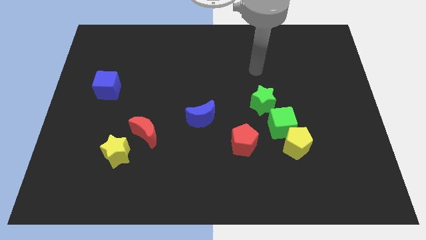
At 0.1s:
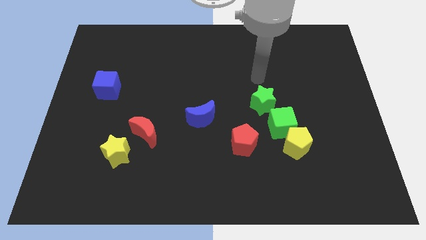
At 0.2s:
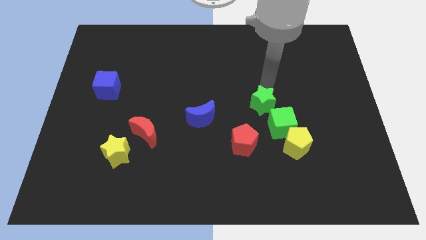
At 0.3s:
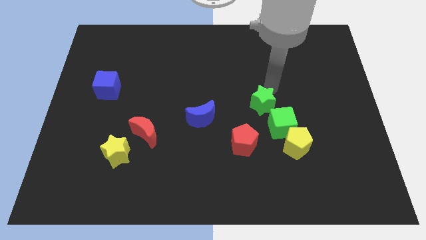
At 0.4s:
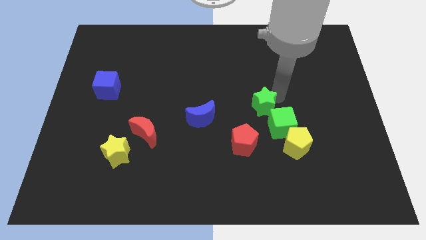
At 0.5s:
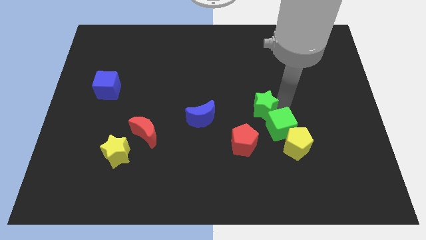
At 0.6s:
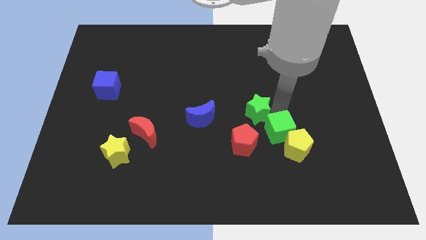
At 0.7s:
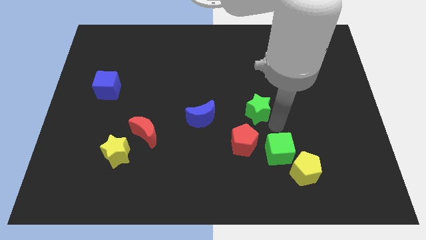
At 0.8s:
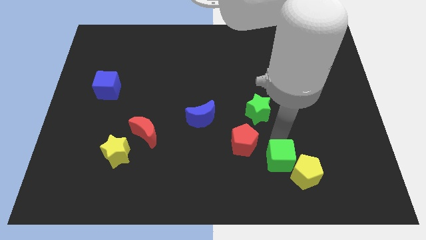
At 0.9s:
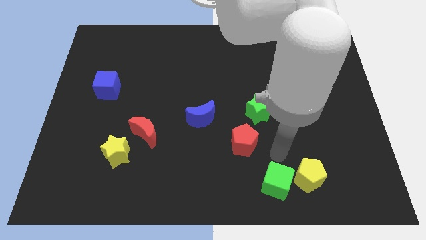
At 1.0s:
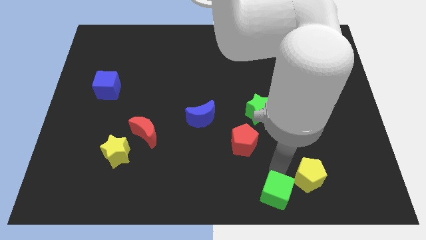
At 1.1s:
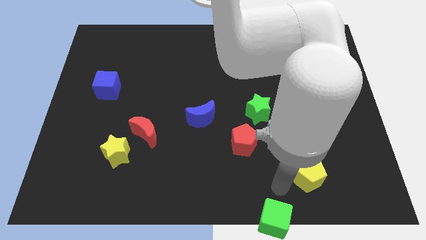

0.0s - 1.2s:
move the yellow pentagon away from the green cube

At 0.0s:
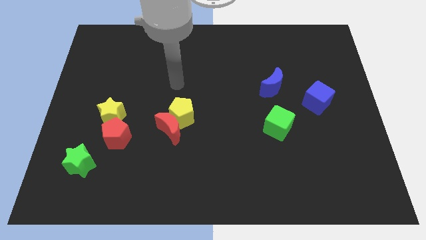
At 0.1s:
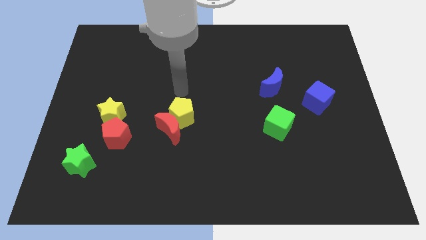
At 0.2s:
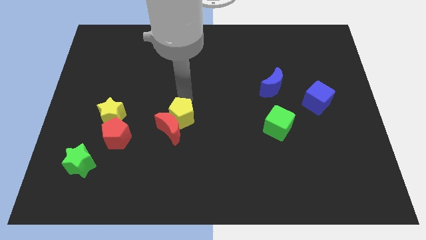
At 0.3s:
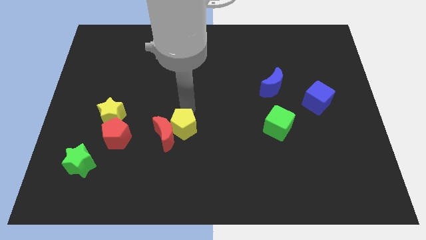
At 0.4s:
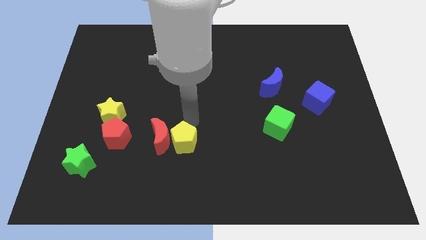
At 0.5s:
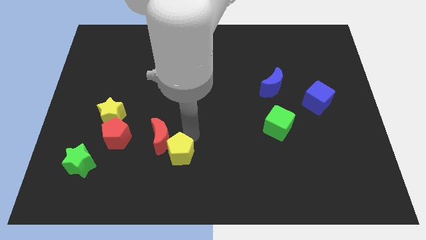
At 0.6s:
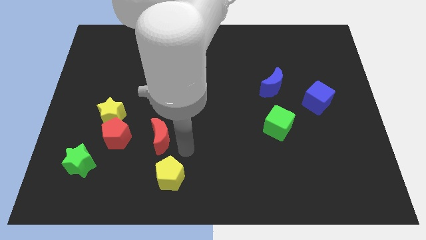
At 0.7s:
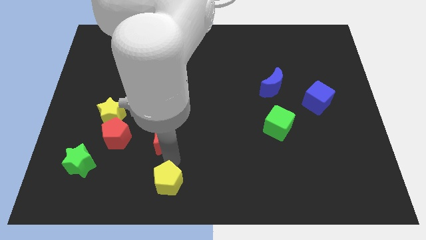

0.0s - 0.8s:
separate the red moon from the yellow pentagon

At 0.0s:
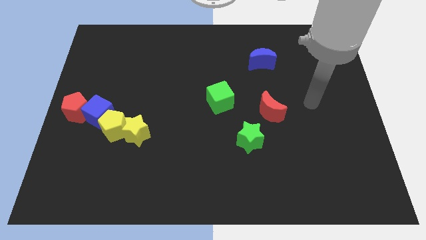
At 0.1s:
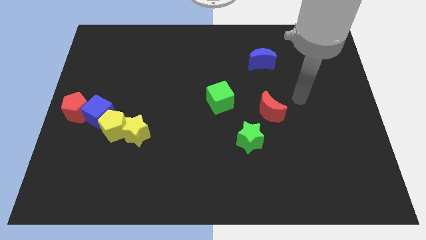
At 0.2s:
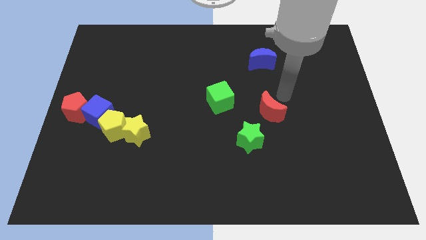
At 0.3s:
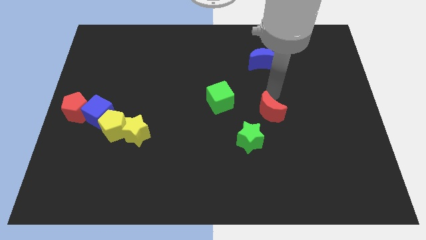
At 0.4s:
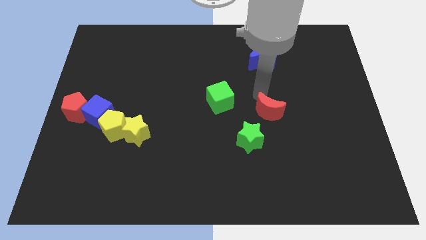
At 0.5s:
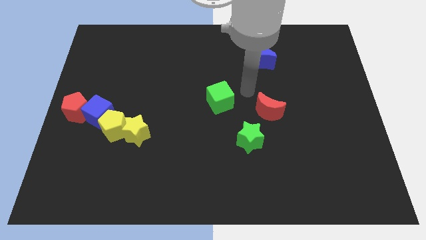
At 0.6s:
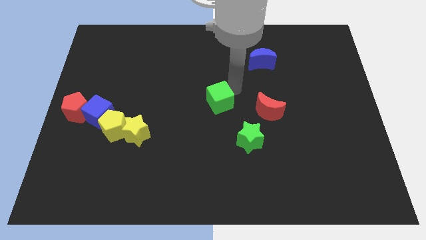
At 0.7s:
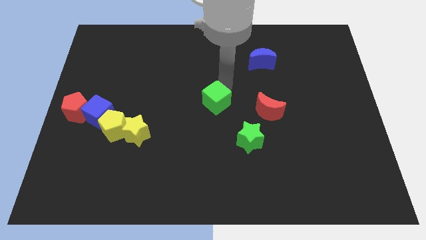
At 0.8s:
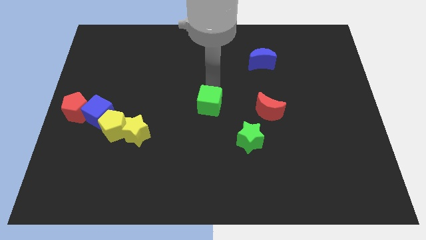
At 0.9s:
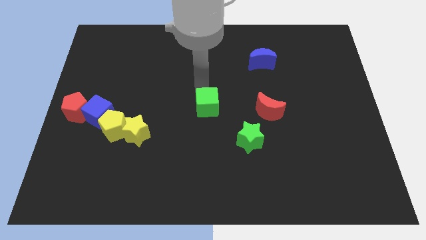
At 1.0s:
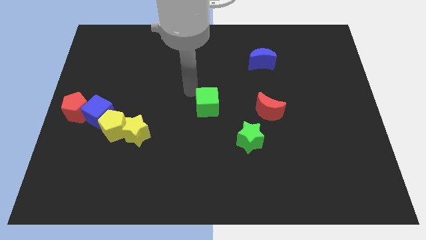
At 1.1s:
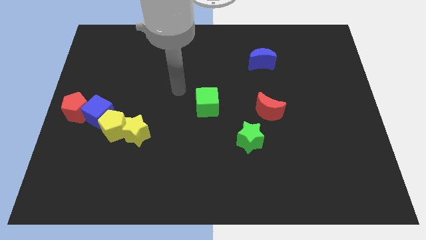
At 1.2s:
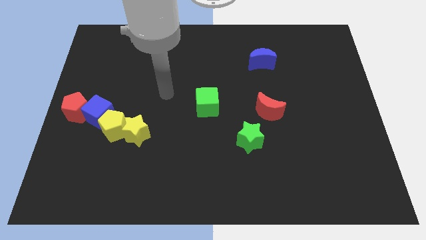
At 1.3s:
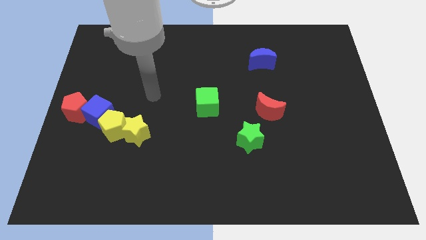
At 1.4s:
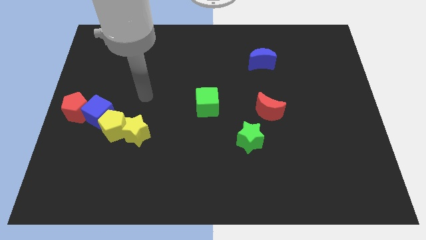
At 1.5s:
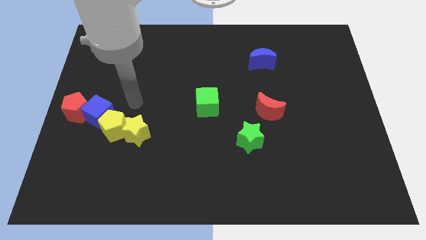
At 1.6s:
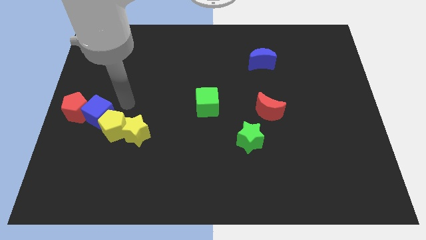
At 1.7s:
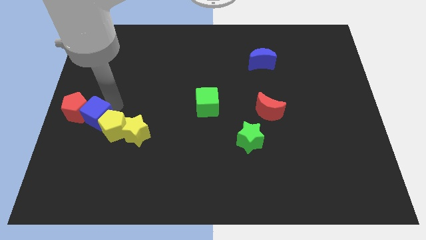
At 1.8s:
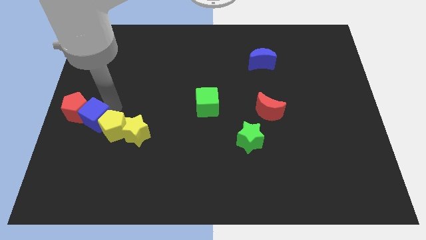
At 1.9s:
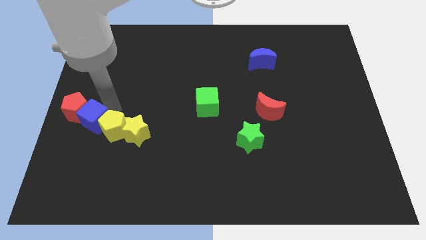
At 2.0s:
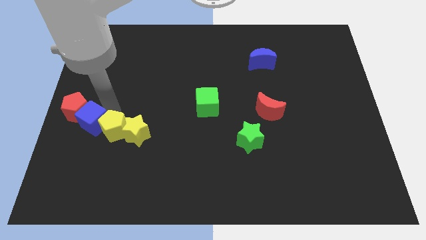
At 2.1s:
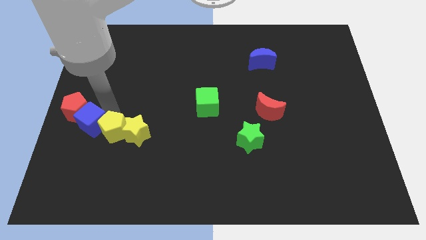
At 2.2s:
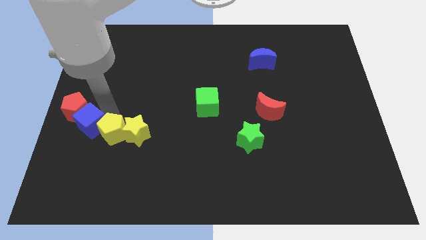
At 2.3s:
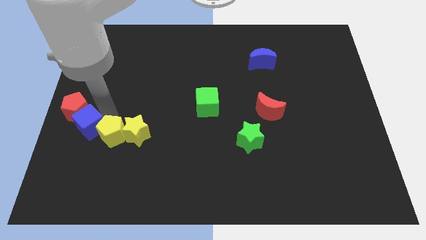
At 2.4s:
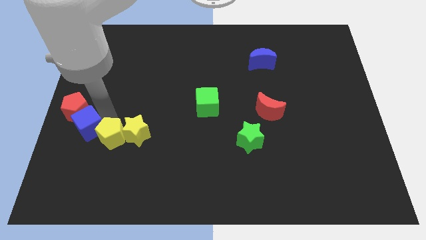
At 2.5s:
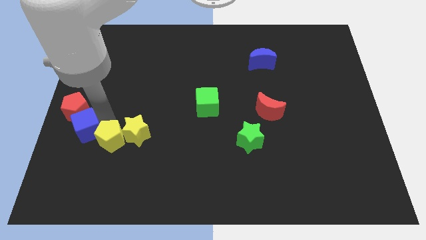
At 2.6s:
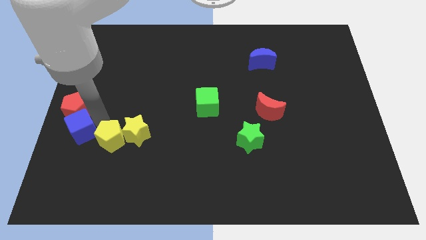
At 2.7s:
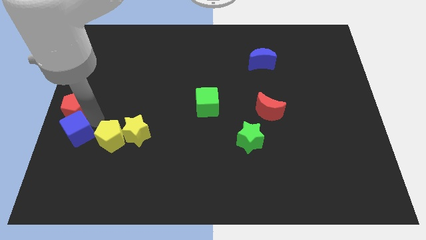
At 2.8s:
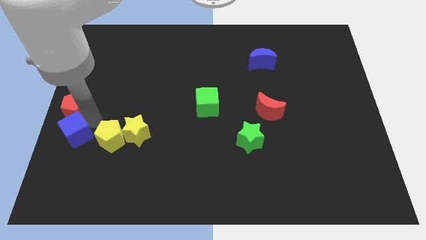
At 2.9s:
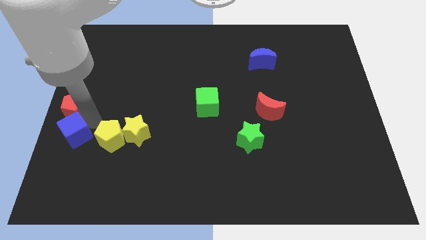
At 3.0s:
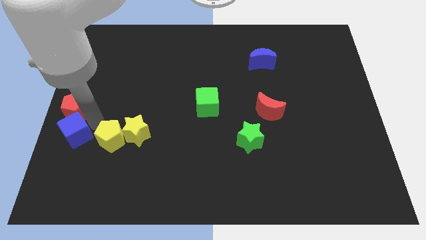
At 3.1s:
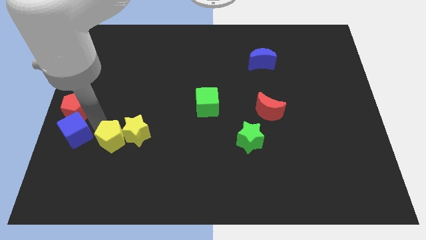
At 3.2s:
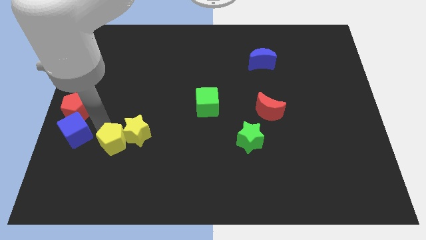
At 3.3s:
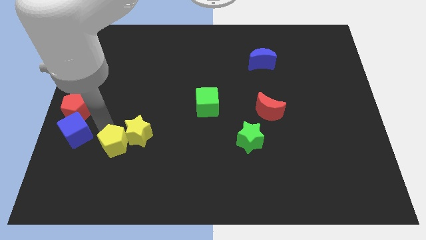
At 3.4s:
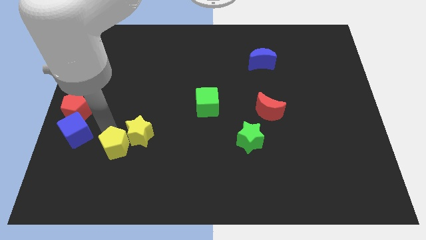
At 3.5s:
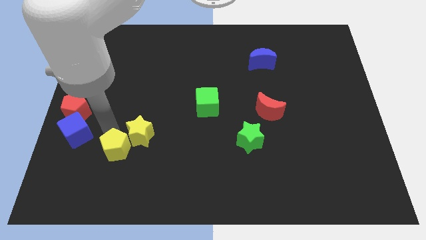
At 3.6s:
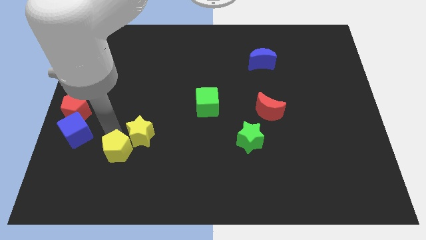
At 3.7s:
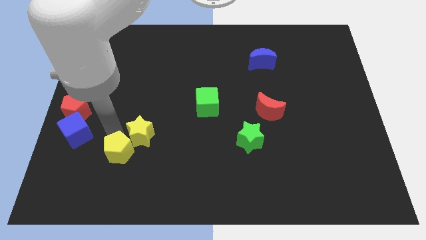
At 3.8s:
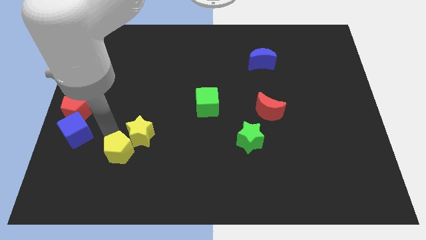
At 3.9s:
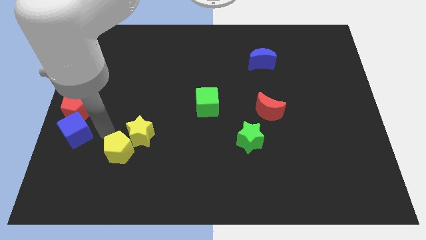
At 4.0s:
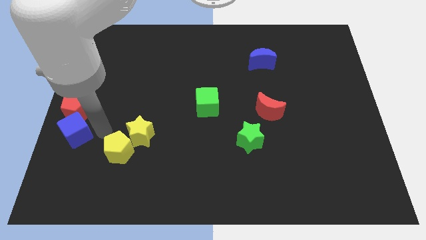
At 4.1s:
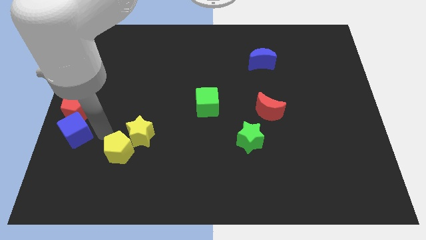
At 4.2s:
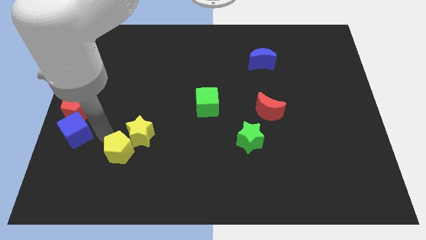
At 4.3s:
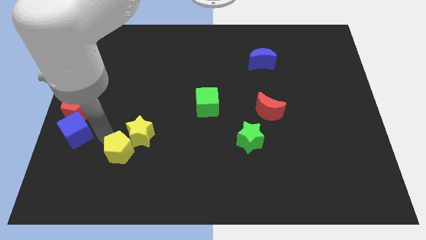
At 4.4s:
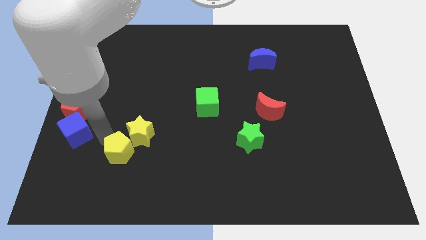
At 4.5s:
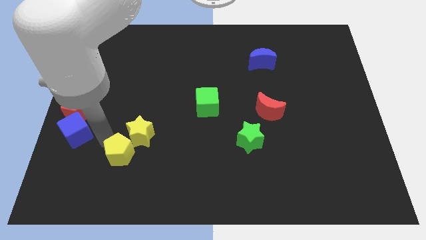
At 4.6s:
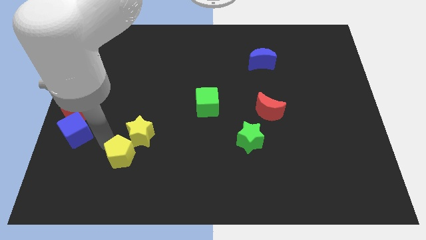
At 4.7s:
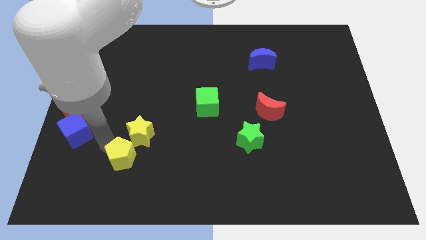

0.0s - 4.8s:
separate the yellow pentagon from the blue cube, yellow star, and red pentagon

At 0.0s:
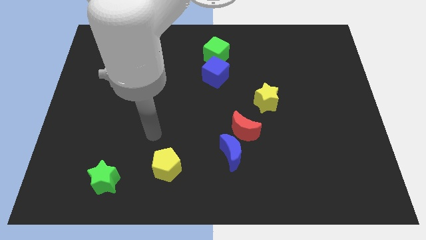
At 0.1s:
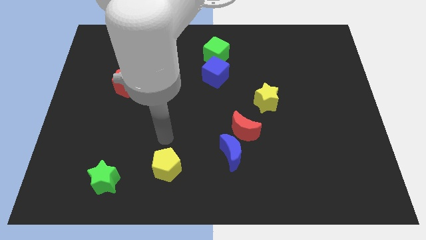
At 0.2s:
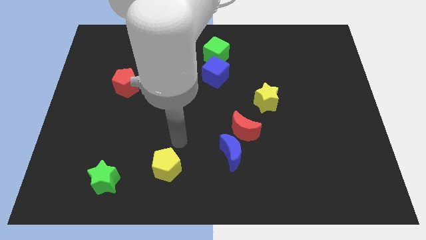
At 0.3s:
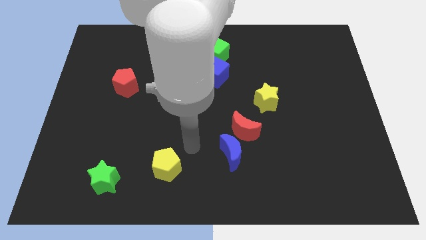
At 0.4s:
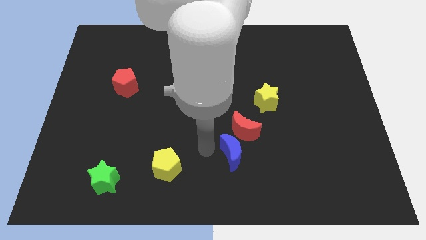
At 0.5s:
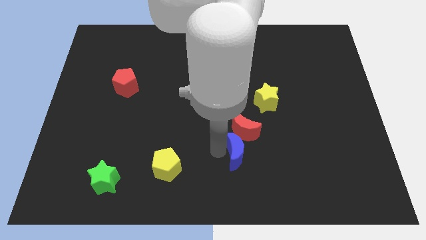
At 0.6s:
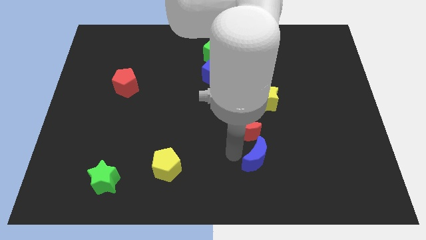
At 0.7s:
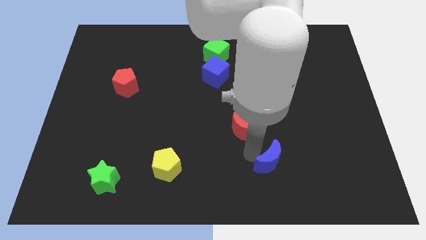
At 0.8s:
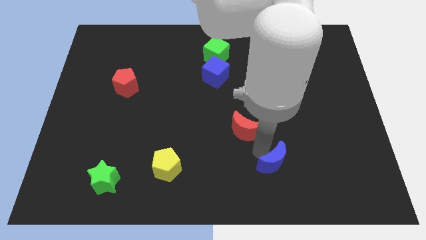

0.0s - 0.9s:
pull the red moon apart from the blue moon

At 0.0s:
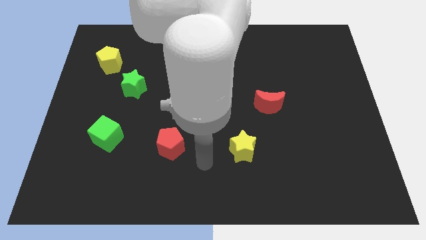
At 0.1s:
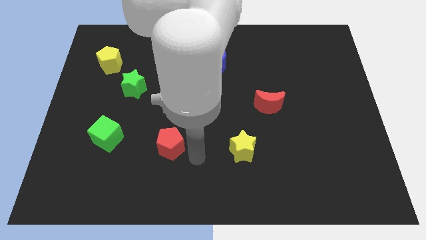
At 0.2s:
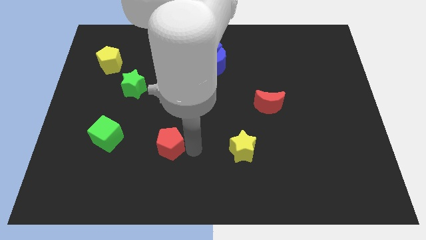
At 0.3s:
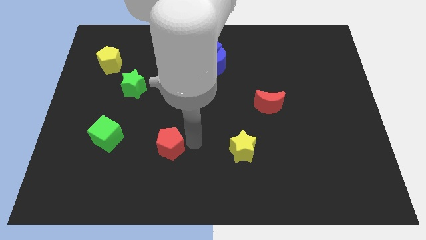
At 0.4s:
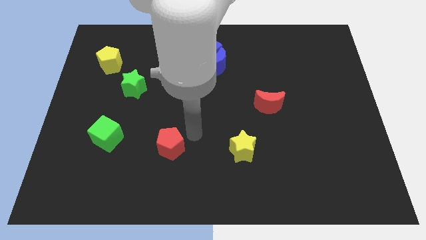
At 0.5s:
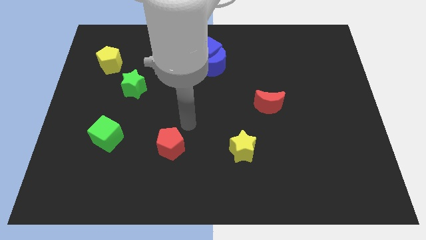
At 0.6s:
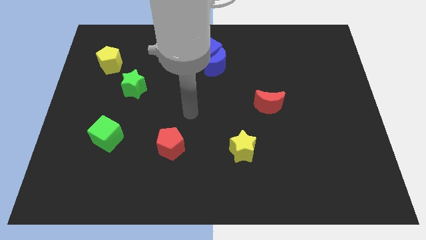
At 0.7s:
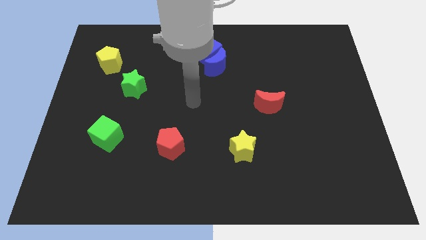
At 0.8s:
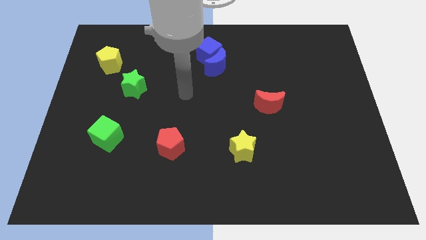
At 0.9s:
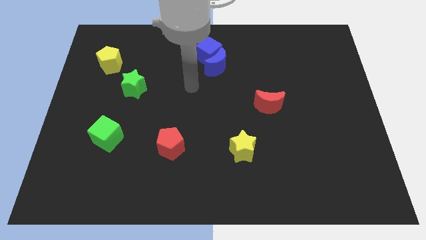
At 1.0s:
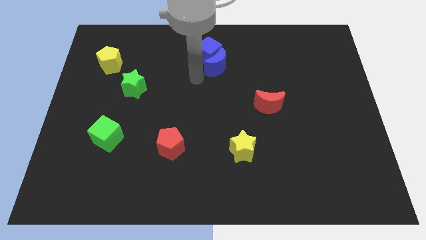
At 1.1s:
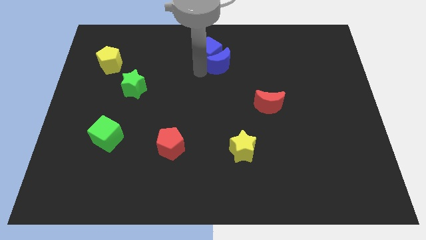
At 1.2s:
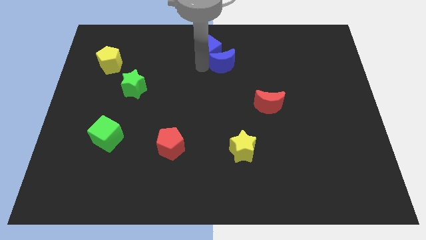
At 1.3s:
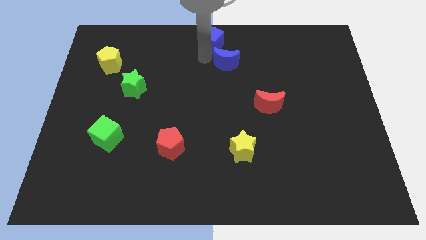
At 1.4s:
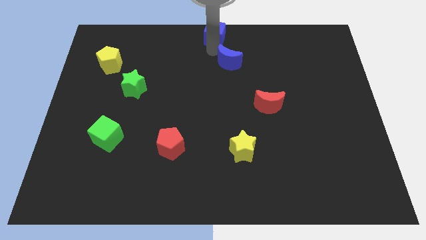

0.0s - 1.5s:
move the blue moon away from the blue cube
